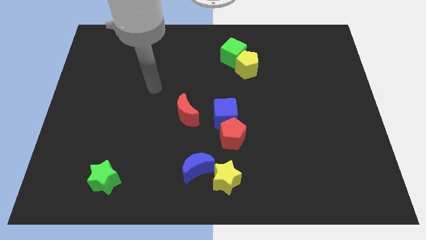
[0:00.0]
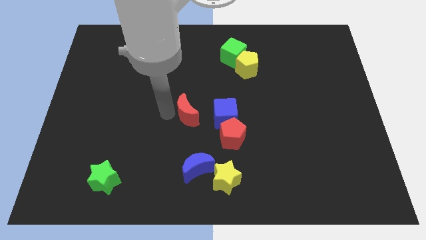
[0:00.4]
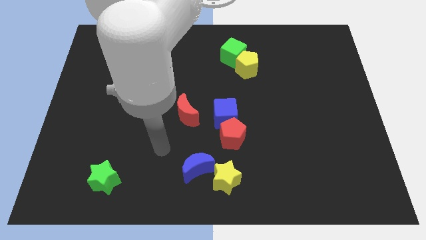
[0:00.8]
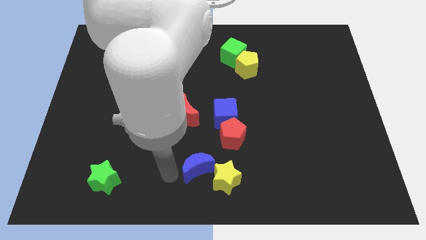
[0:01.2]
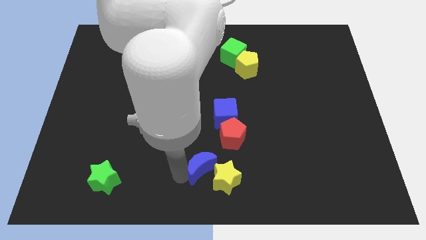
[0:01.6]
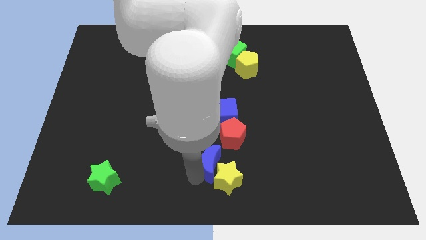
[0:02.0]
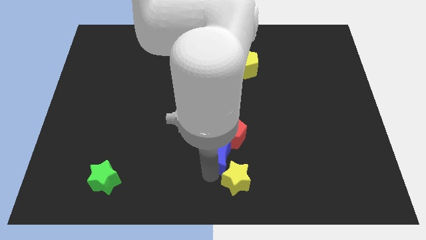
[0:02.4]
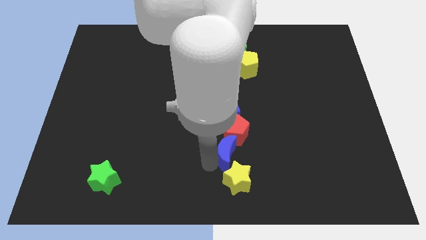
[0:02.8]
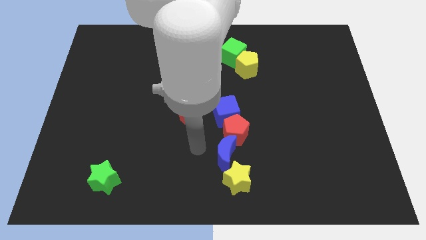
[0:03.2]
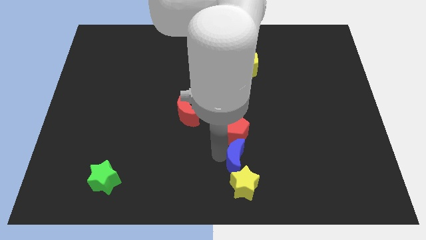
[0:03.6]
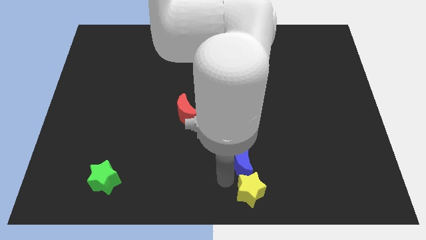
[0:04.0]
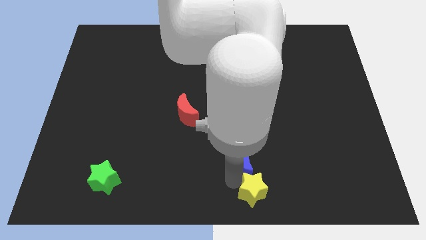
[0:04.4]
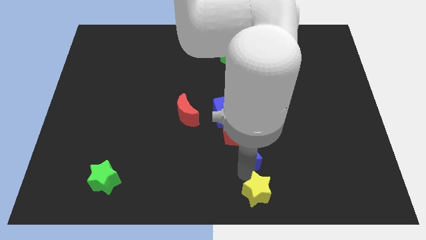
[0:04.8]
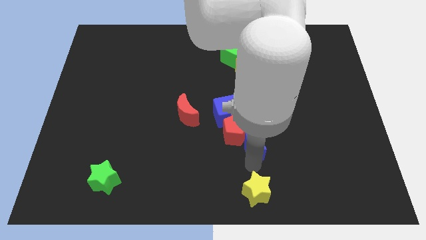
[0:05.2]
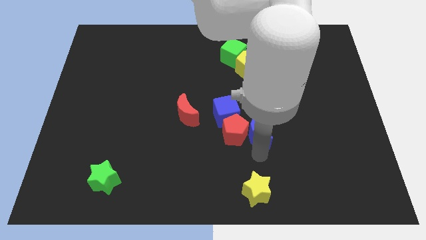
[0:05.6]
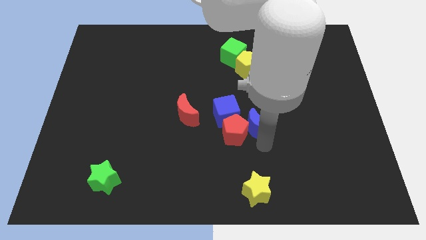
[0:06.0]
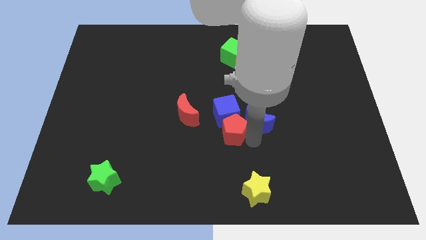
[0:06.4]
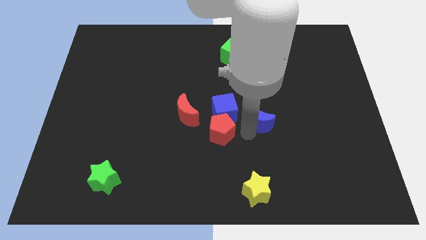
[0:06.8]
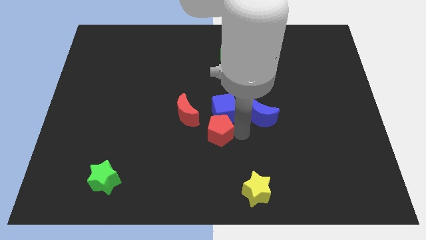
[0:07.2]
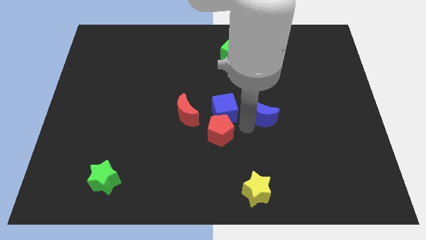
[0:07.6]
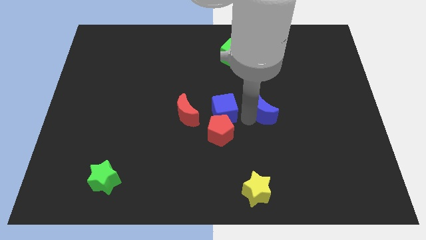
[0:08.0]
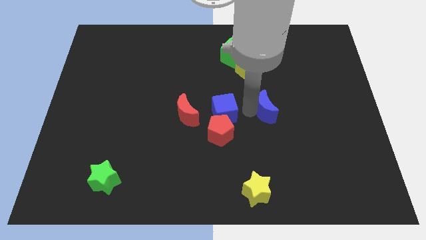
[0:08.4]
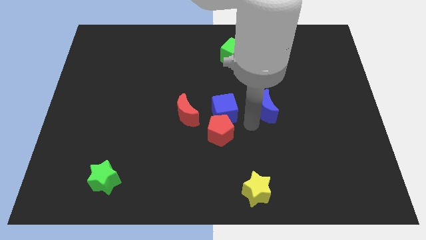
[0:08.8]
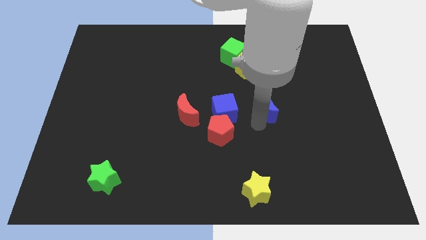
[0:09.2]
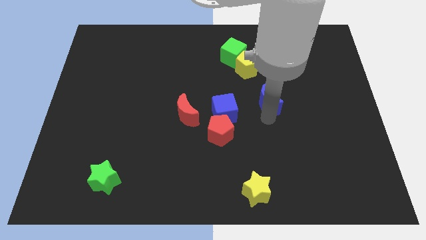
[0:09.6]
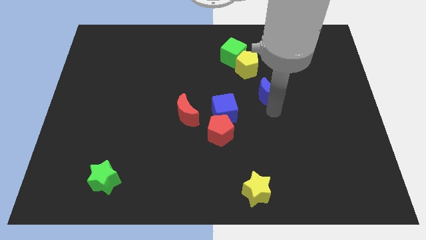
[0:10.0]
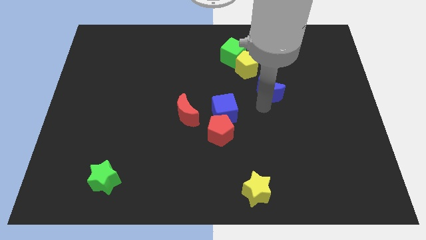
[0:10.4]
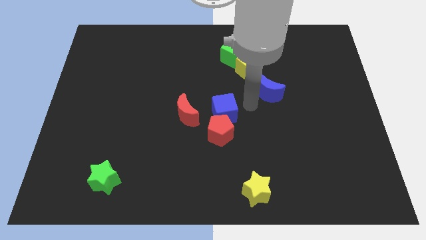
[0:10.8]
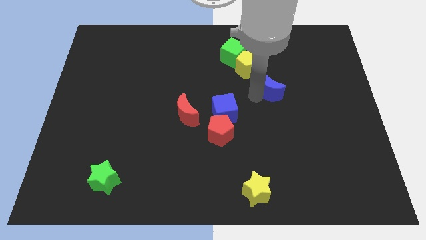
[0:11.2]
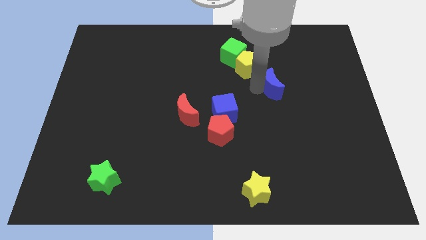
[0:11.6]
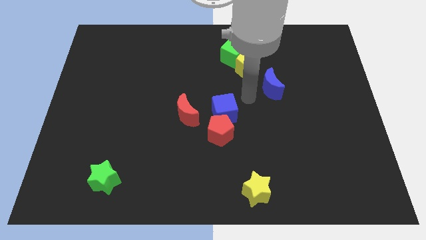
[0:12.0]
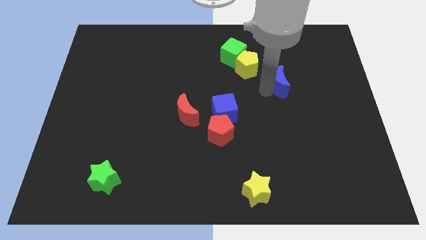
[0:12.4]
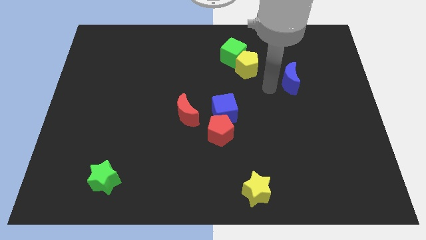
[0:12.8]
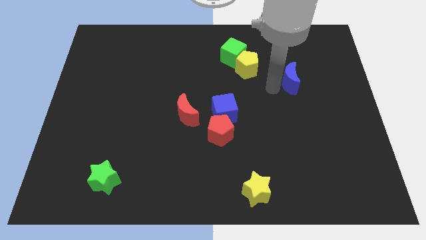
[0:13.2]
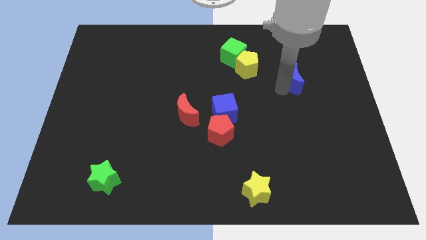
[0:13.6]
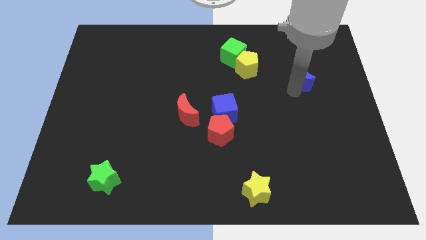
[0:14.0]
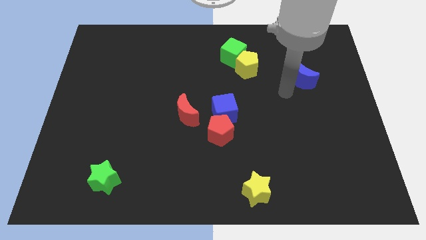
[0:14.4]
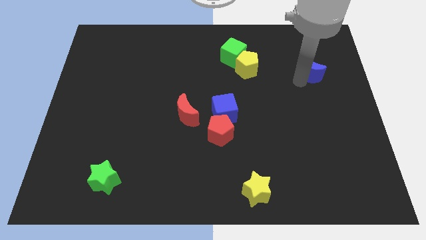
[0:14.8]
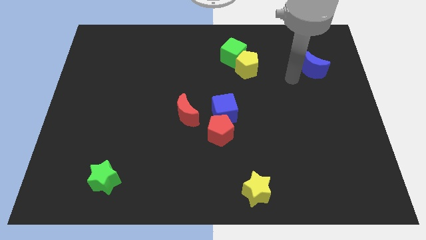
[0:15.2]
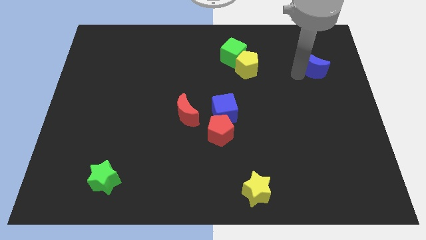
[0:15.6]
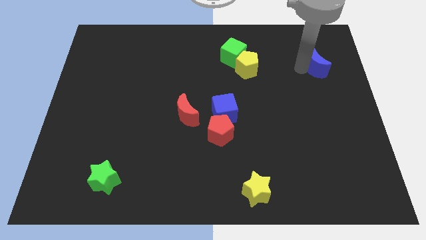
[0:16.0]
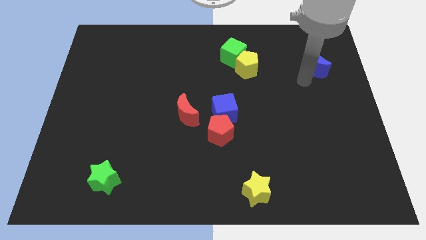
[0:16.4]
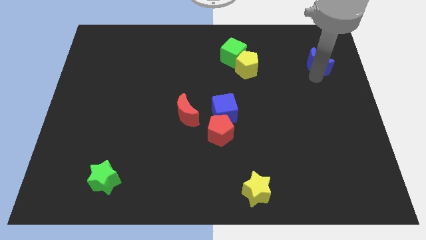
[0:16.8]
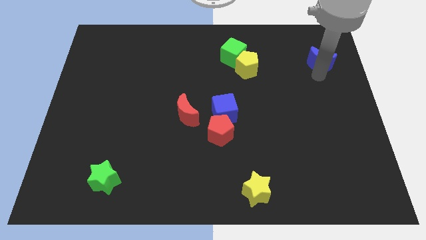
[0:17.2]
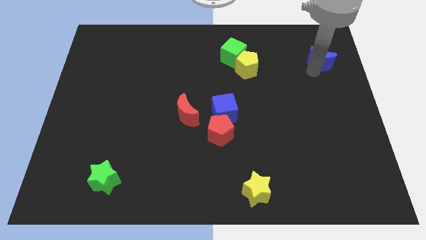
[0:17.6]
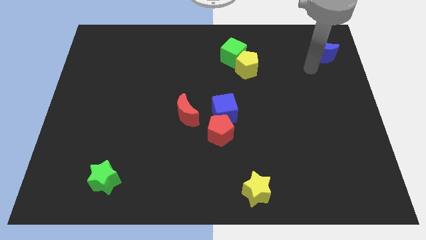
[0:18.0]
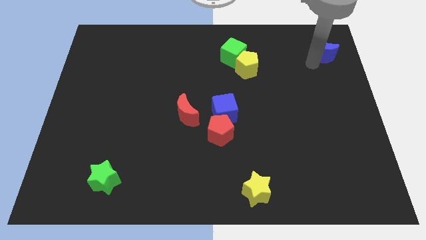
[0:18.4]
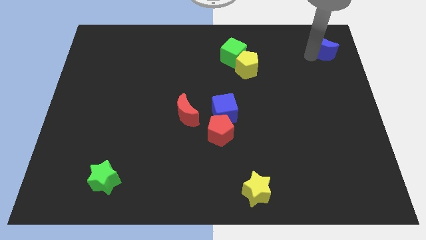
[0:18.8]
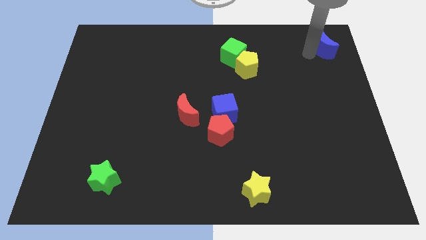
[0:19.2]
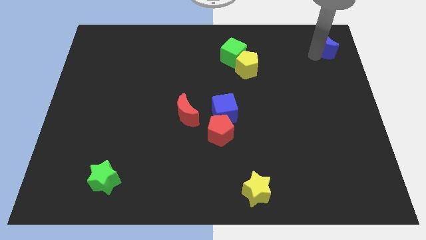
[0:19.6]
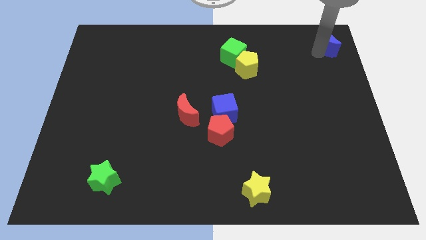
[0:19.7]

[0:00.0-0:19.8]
push the blue moon to the top right of the board

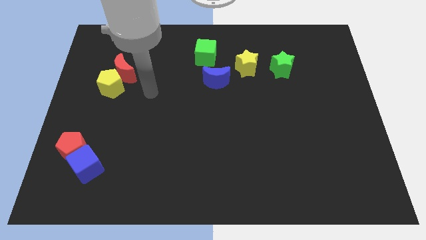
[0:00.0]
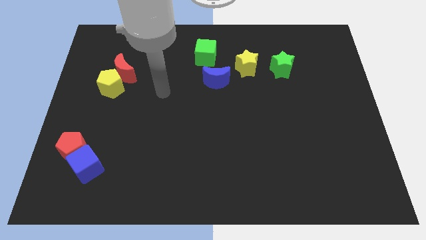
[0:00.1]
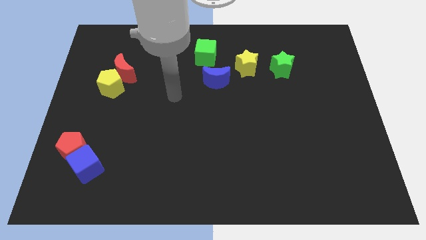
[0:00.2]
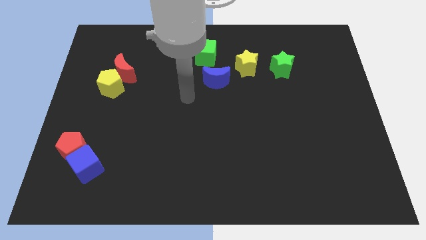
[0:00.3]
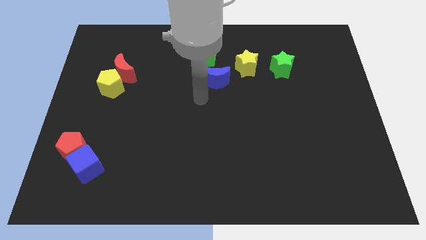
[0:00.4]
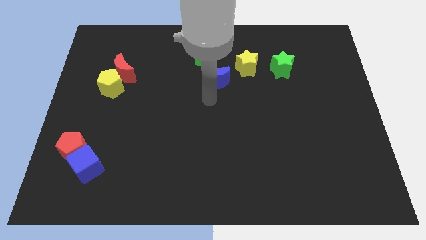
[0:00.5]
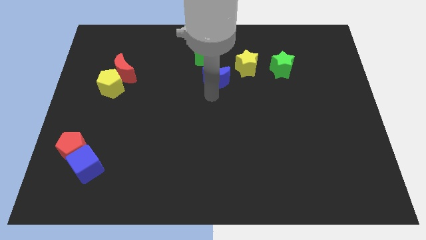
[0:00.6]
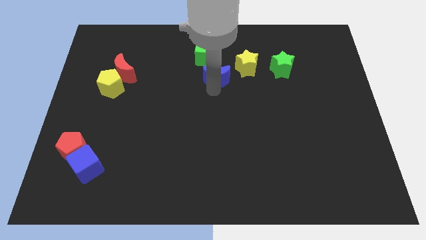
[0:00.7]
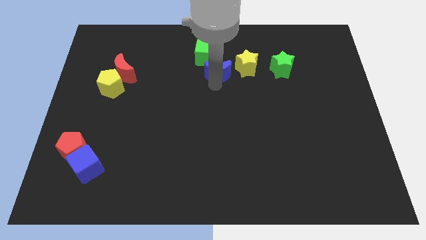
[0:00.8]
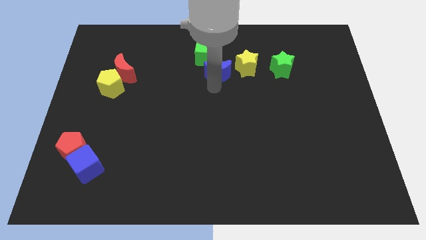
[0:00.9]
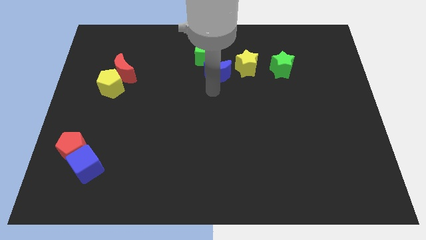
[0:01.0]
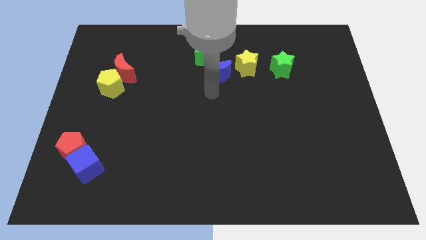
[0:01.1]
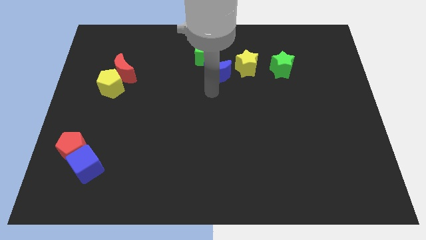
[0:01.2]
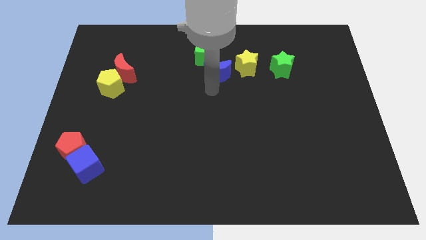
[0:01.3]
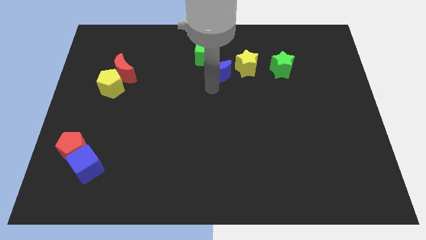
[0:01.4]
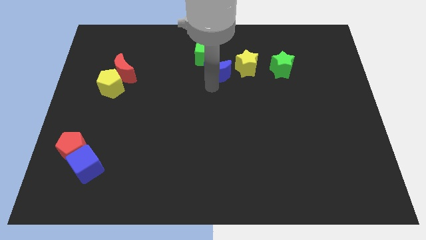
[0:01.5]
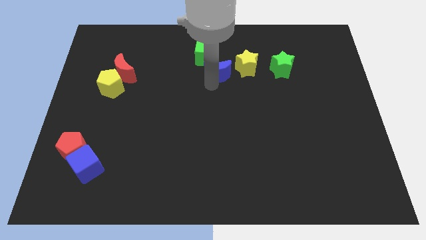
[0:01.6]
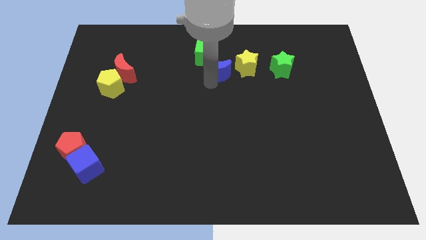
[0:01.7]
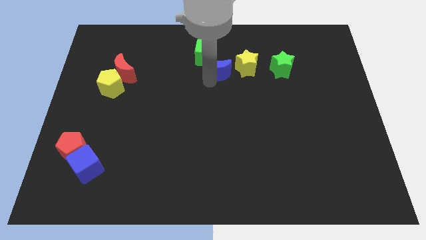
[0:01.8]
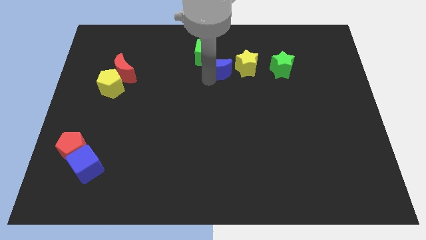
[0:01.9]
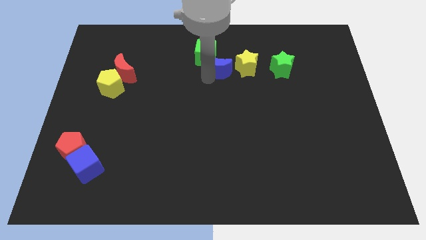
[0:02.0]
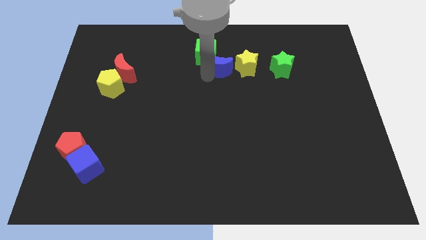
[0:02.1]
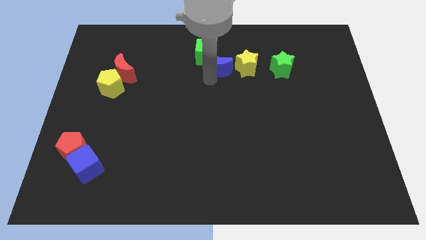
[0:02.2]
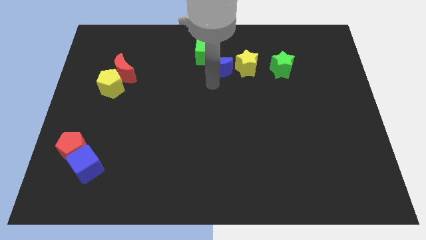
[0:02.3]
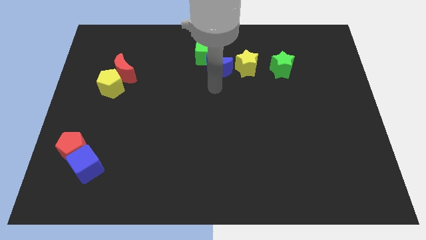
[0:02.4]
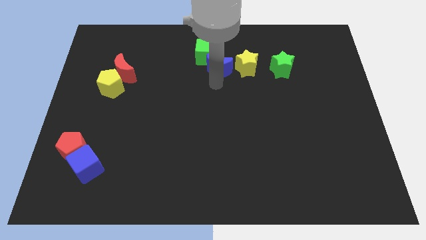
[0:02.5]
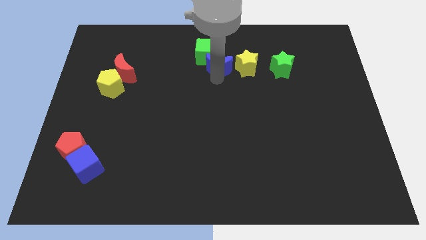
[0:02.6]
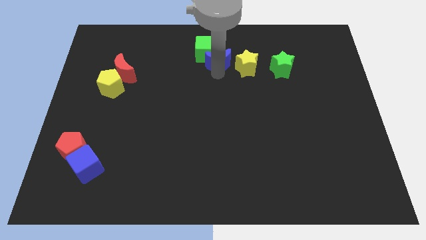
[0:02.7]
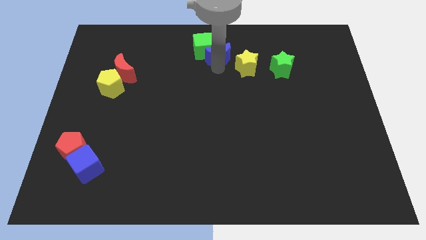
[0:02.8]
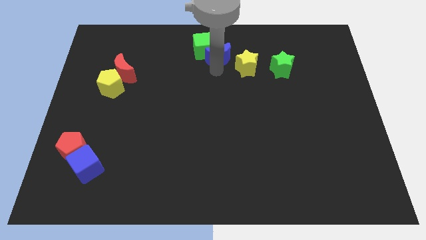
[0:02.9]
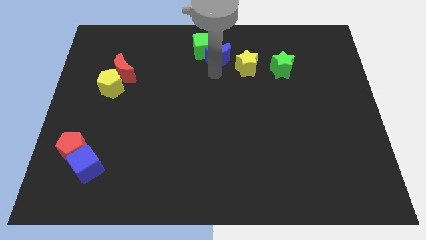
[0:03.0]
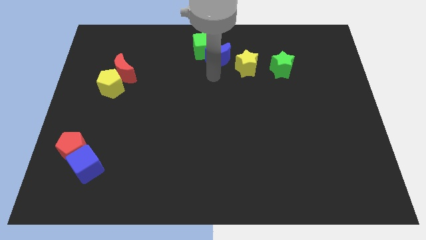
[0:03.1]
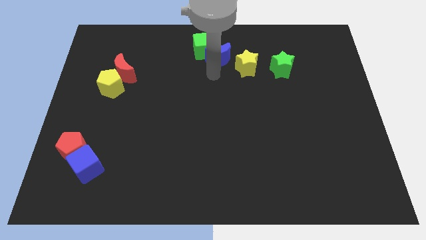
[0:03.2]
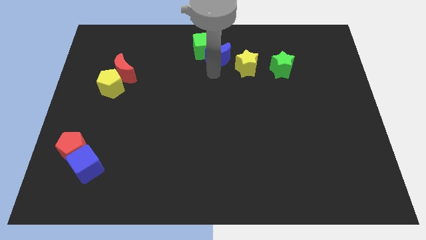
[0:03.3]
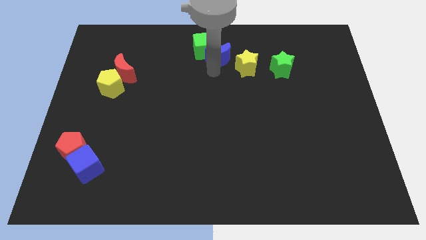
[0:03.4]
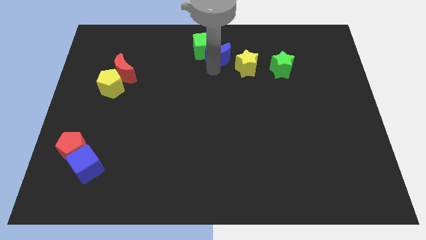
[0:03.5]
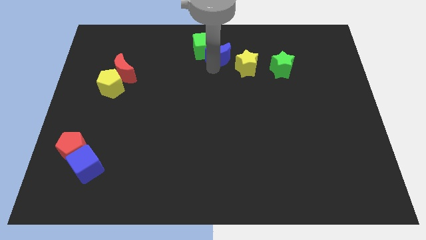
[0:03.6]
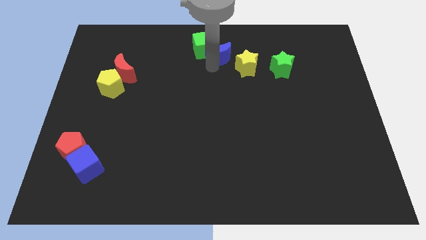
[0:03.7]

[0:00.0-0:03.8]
move the blue moon to the top side
